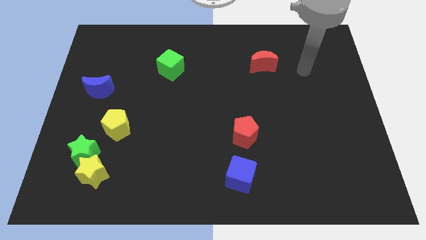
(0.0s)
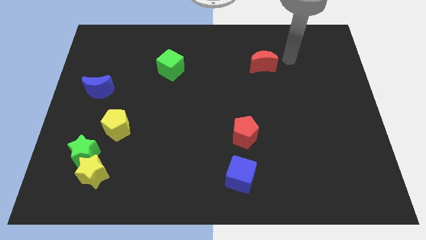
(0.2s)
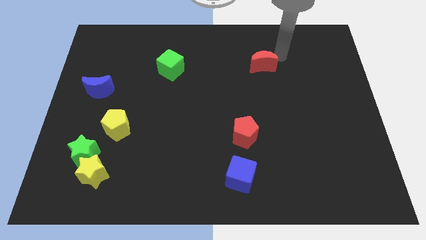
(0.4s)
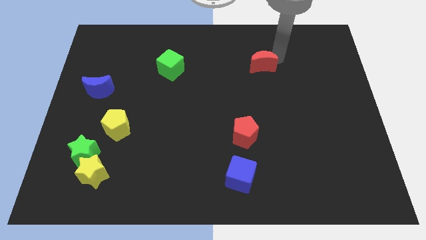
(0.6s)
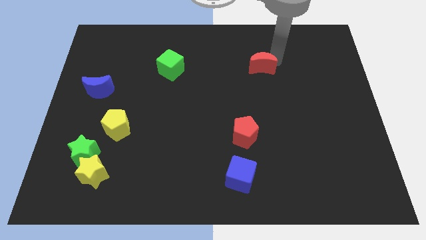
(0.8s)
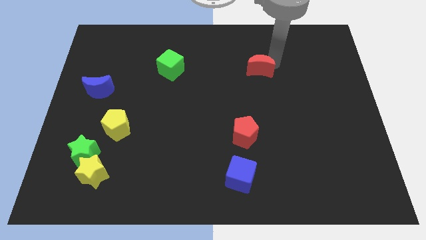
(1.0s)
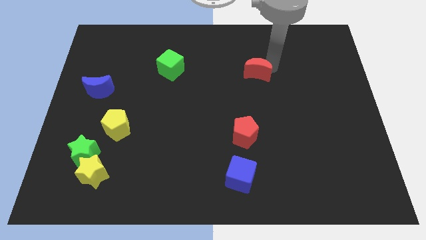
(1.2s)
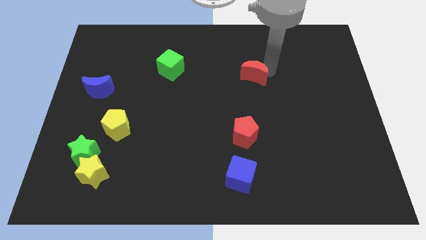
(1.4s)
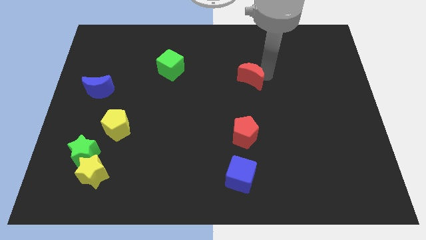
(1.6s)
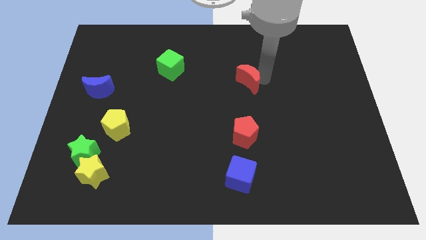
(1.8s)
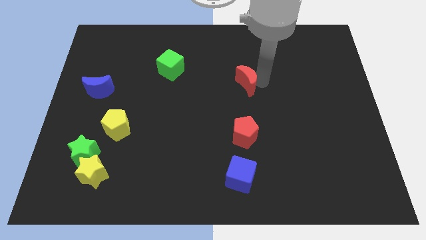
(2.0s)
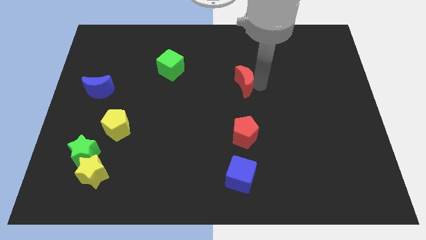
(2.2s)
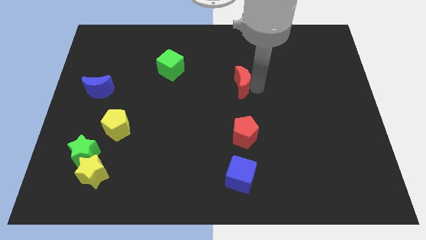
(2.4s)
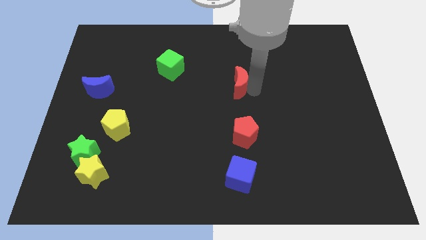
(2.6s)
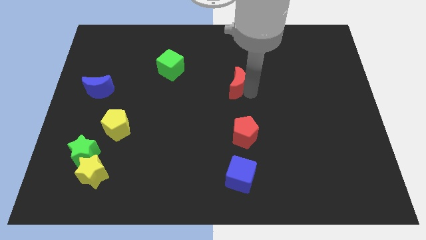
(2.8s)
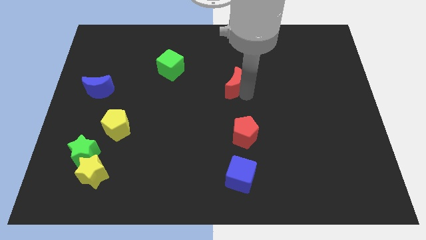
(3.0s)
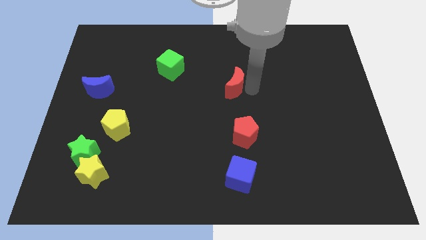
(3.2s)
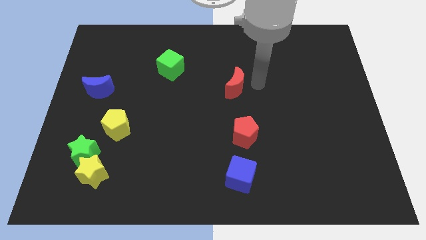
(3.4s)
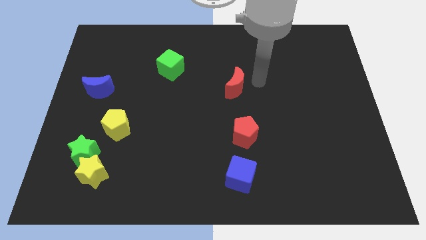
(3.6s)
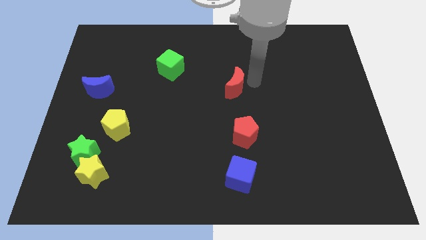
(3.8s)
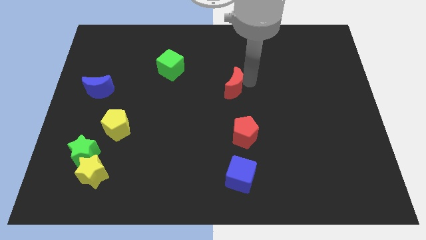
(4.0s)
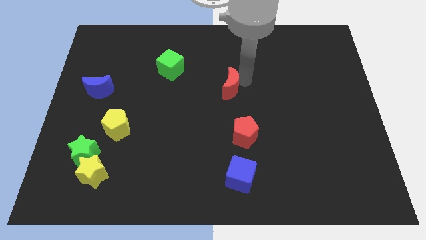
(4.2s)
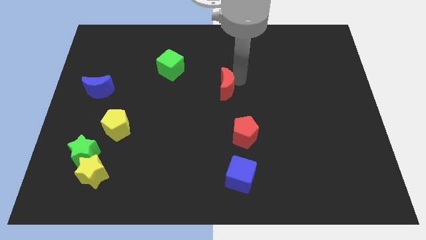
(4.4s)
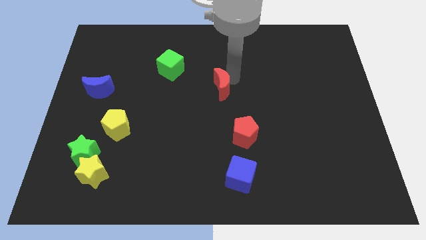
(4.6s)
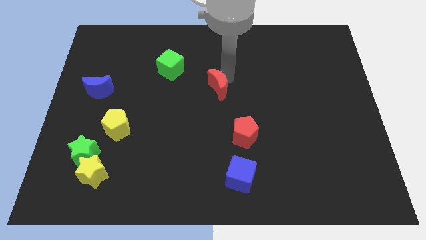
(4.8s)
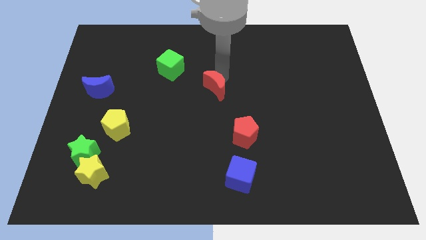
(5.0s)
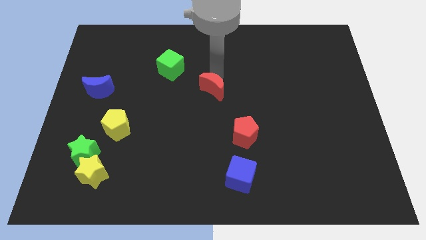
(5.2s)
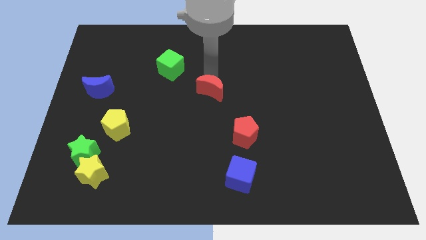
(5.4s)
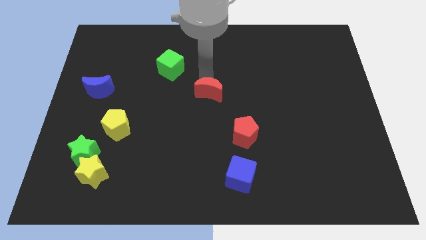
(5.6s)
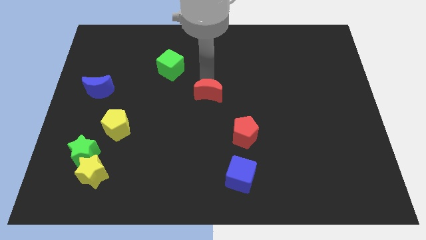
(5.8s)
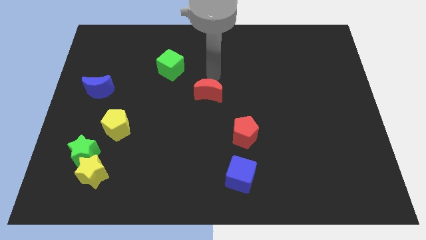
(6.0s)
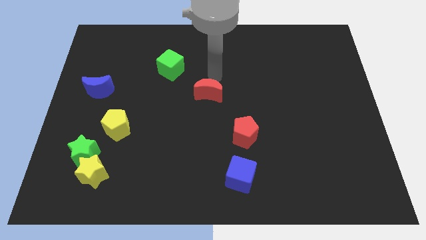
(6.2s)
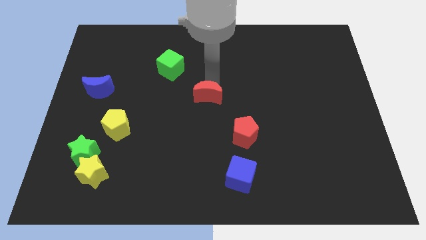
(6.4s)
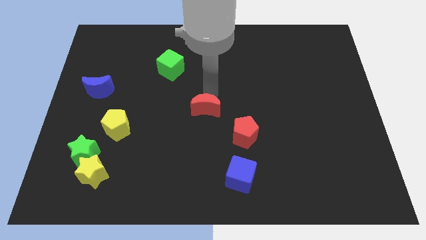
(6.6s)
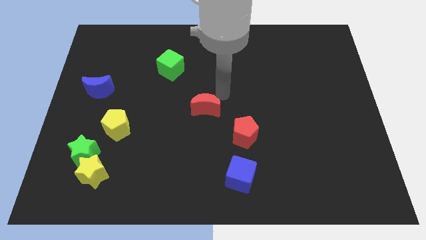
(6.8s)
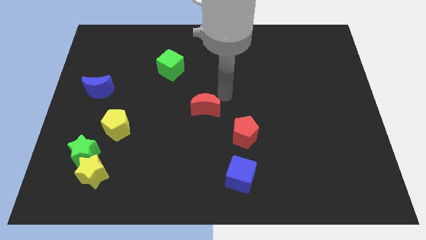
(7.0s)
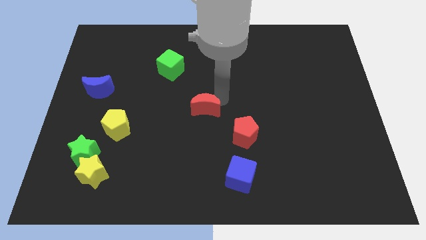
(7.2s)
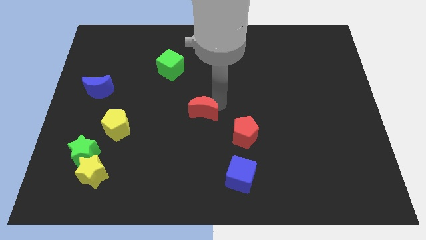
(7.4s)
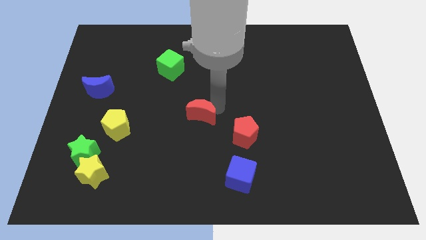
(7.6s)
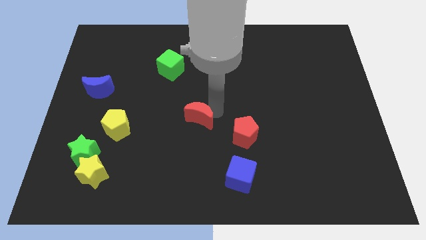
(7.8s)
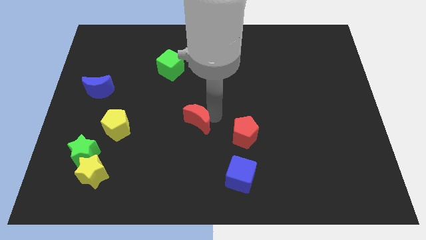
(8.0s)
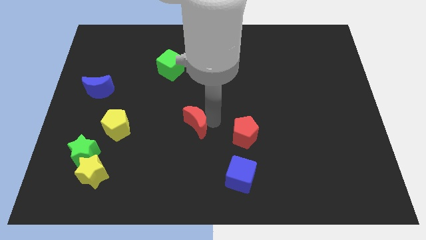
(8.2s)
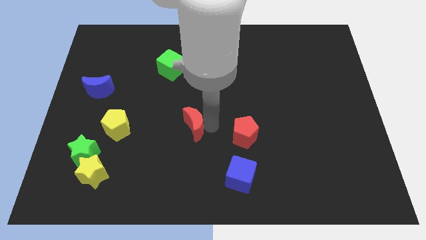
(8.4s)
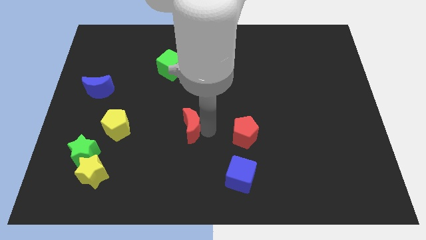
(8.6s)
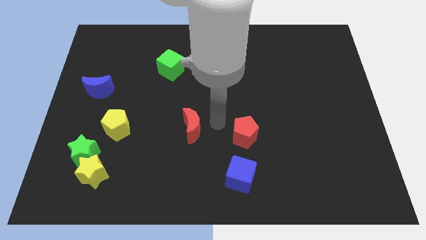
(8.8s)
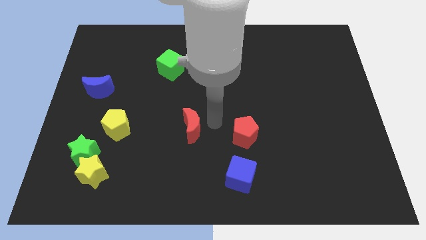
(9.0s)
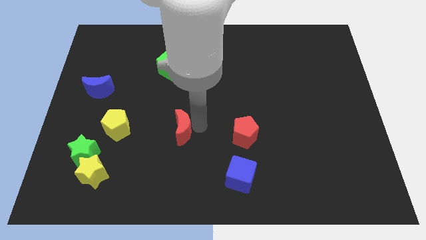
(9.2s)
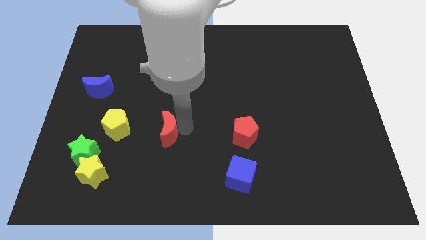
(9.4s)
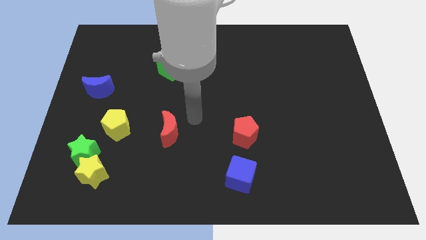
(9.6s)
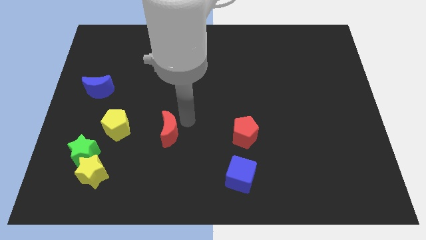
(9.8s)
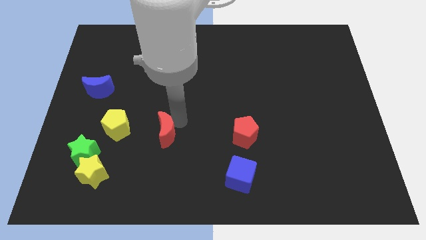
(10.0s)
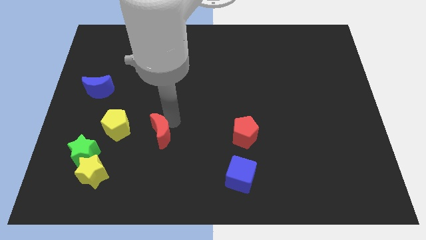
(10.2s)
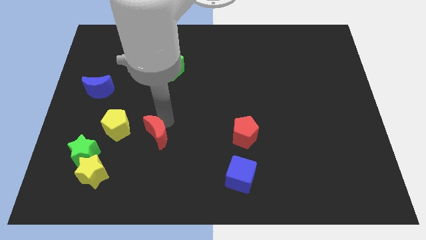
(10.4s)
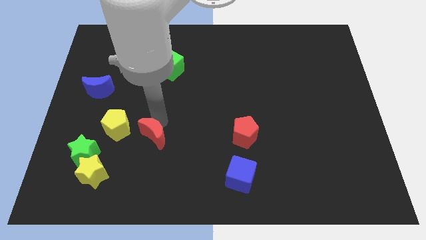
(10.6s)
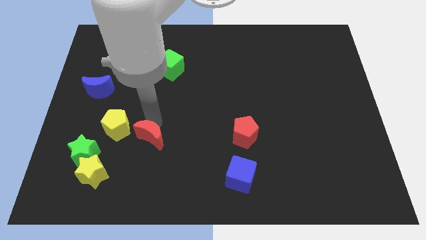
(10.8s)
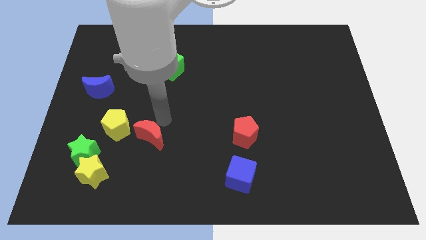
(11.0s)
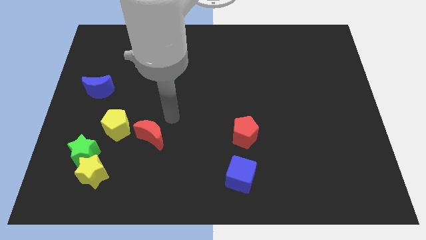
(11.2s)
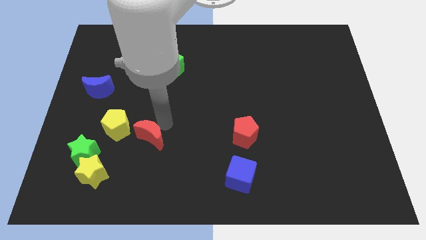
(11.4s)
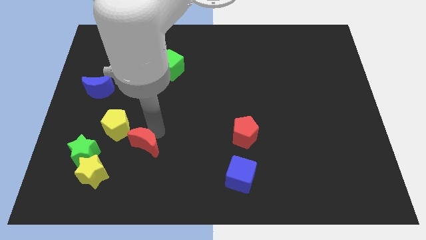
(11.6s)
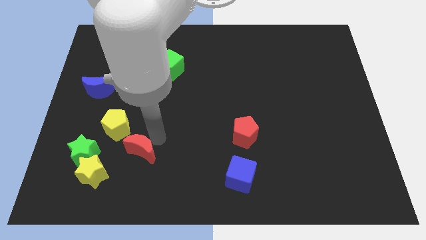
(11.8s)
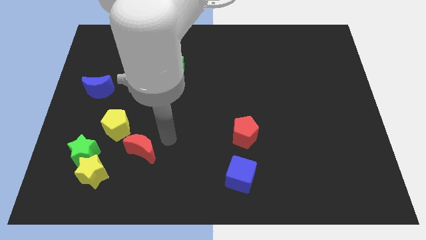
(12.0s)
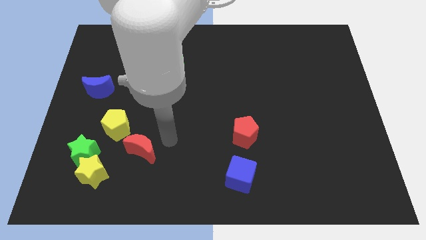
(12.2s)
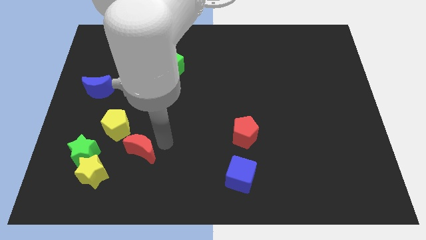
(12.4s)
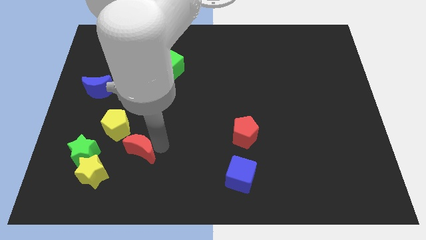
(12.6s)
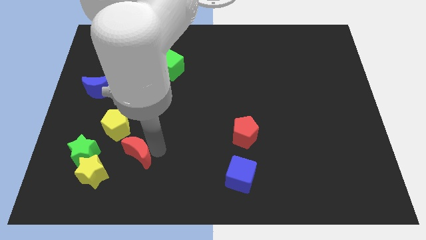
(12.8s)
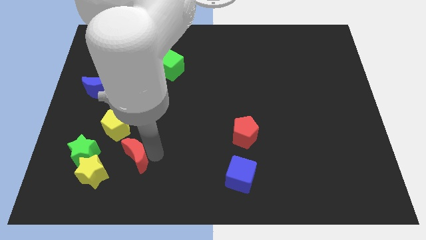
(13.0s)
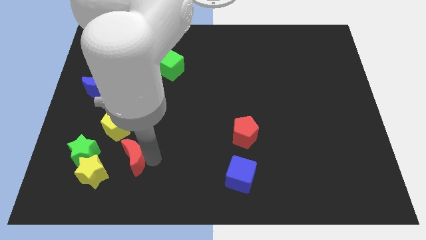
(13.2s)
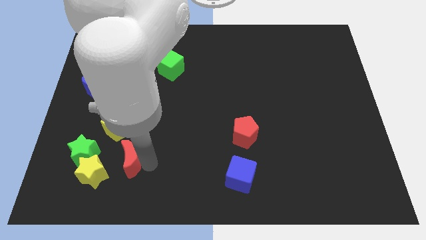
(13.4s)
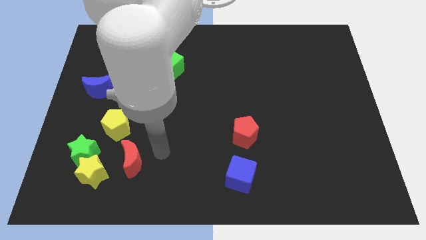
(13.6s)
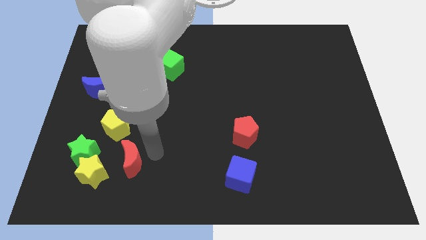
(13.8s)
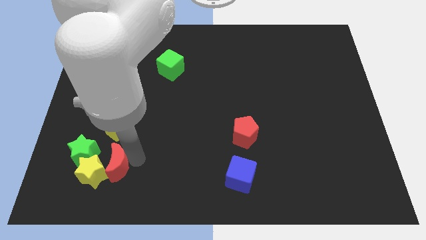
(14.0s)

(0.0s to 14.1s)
push the red moon next to the yellow star
